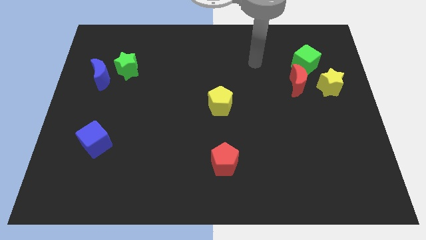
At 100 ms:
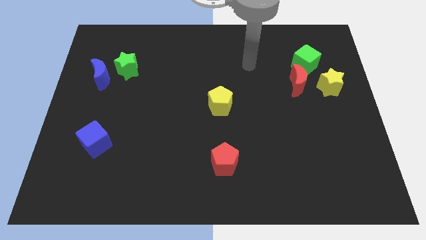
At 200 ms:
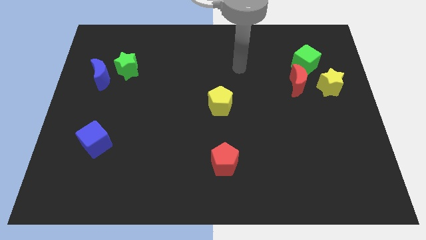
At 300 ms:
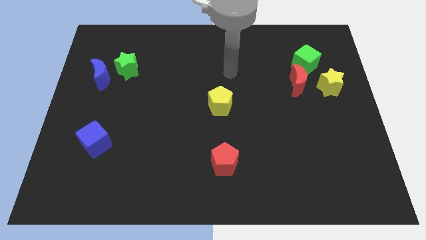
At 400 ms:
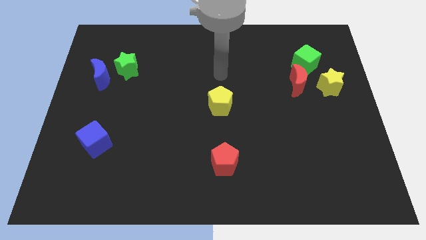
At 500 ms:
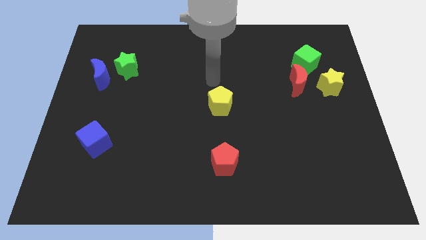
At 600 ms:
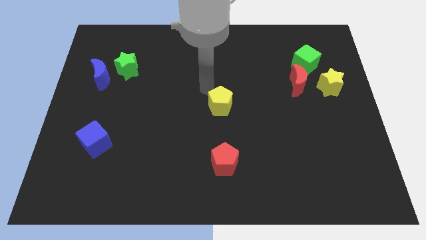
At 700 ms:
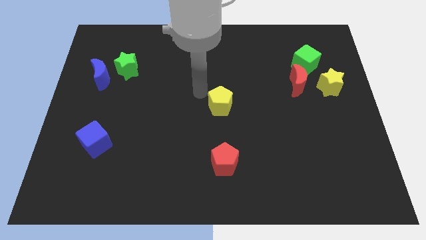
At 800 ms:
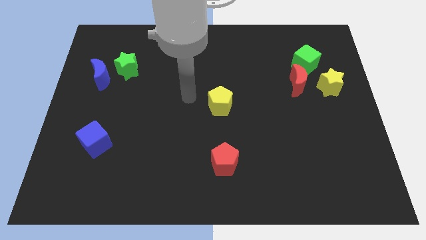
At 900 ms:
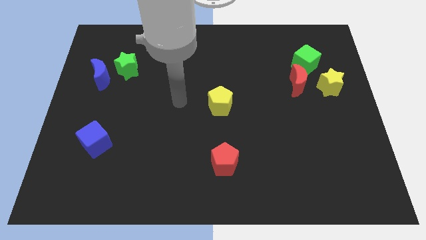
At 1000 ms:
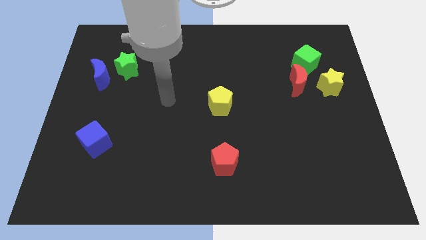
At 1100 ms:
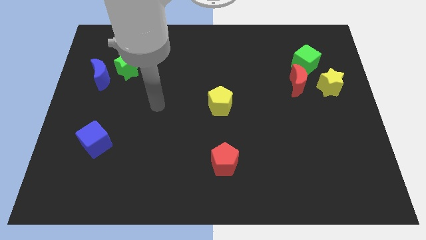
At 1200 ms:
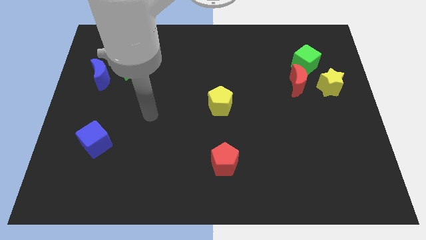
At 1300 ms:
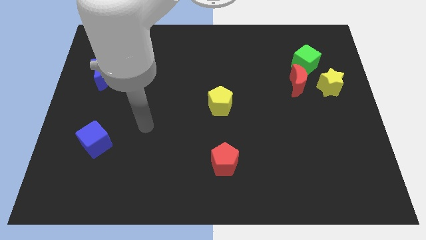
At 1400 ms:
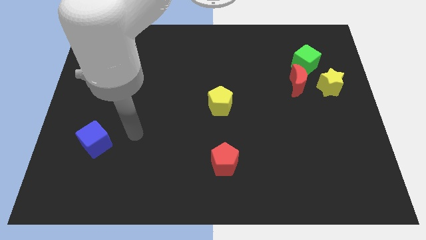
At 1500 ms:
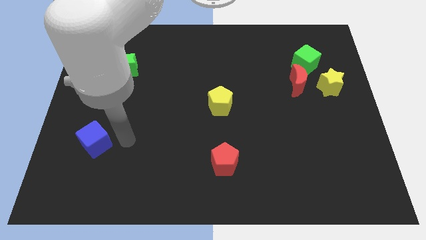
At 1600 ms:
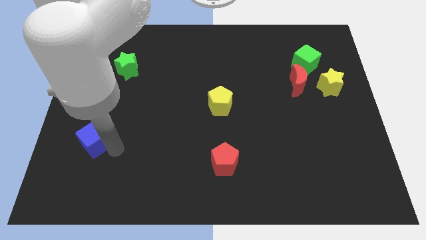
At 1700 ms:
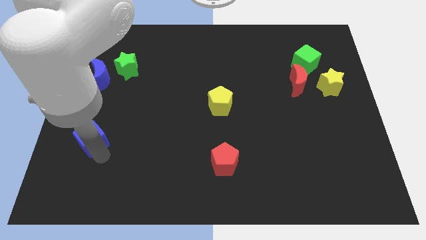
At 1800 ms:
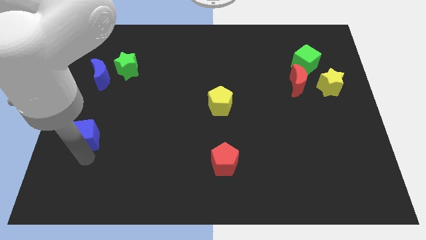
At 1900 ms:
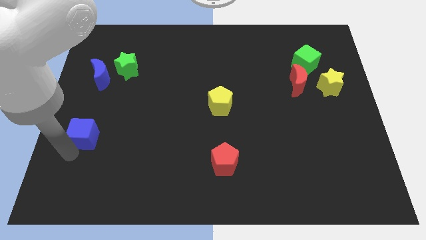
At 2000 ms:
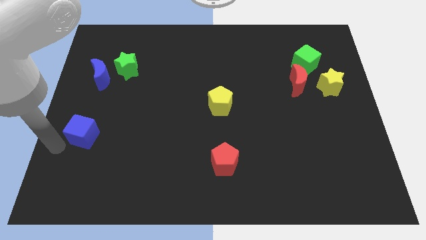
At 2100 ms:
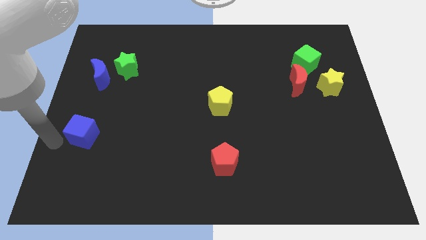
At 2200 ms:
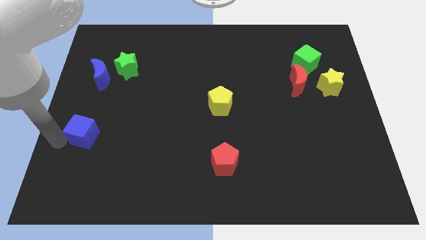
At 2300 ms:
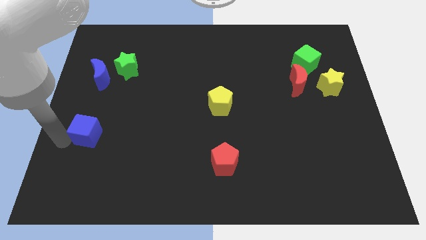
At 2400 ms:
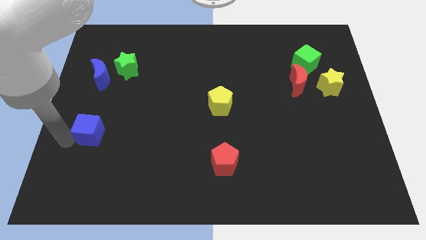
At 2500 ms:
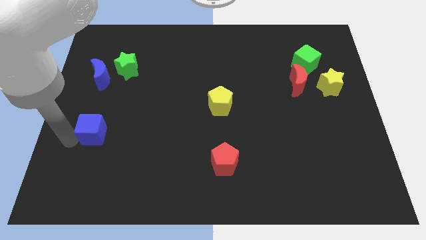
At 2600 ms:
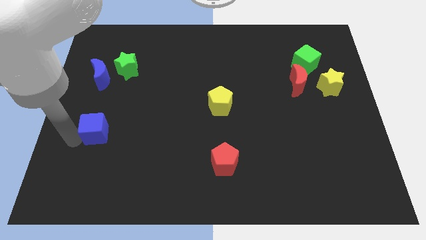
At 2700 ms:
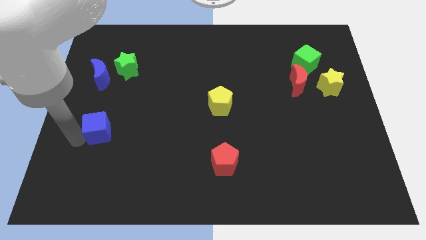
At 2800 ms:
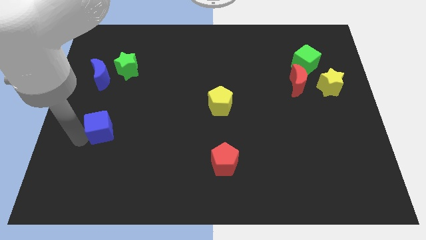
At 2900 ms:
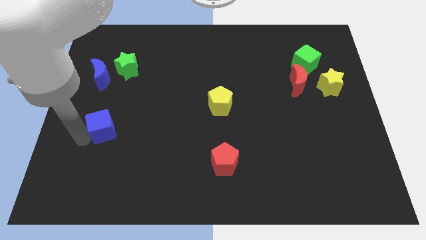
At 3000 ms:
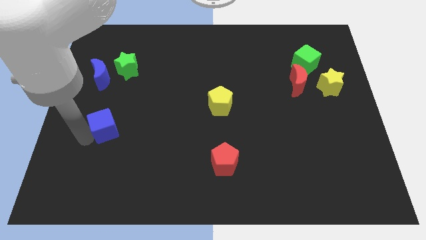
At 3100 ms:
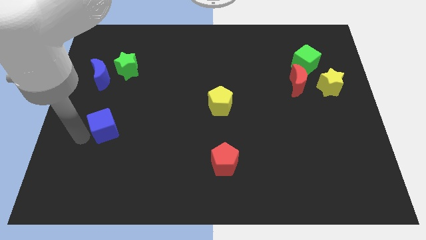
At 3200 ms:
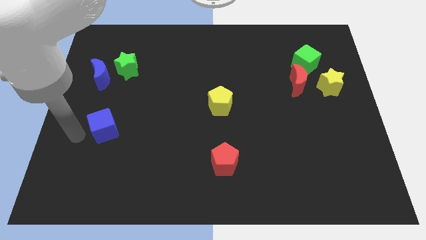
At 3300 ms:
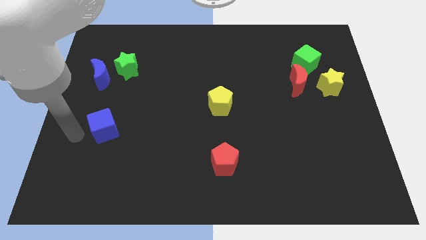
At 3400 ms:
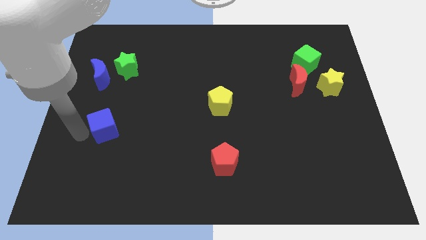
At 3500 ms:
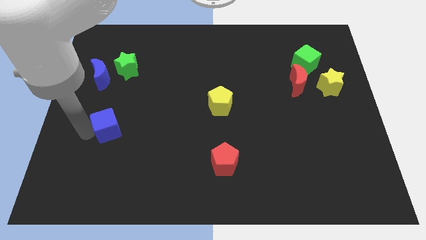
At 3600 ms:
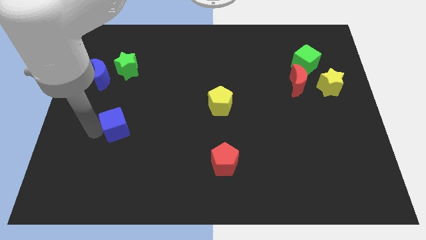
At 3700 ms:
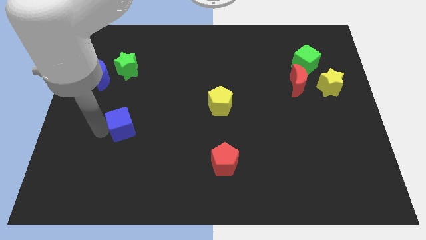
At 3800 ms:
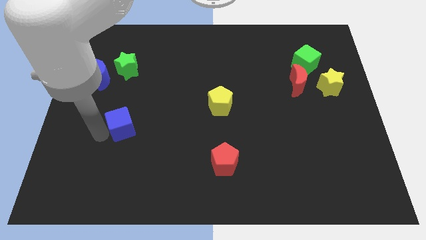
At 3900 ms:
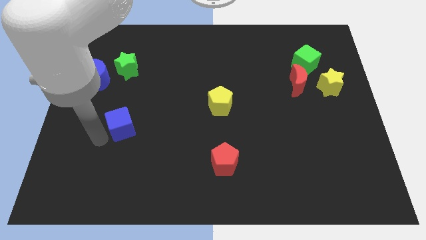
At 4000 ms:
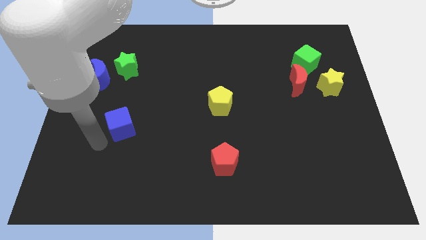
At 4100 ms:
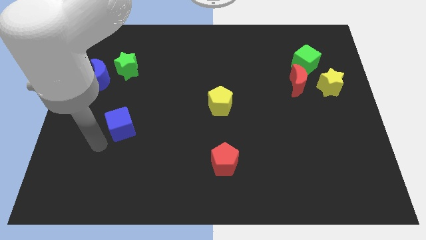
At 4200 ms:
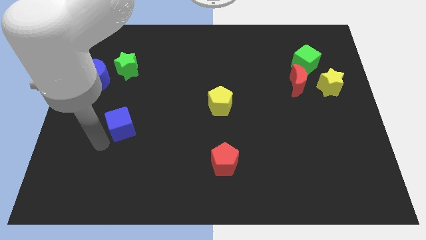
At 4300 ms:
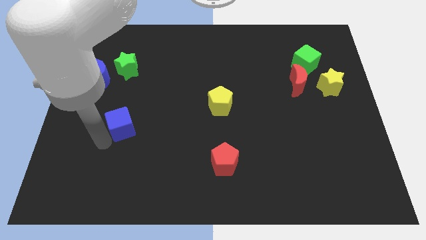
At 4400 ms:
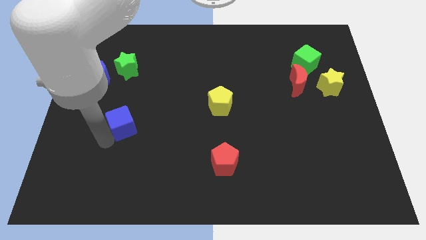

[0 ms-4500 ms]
push the blue cube up and then to the right a little bit

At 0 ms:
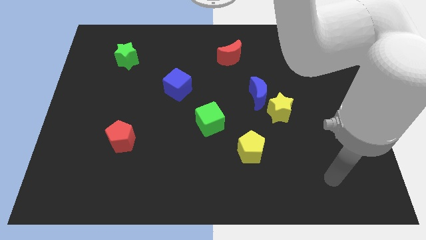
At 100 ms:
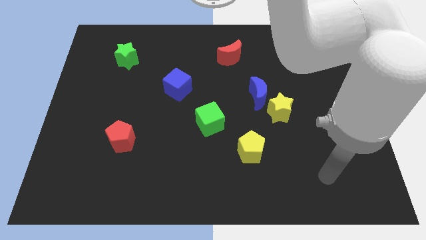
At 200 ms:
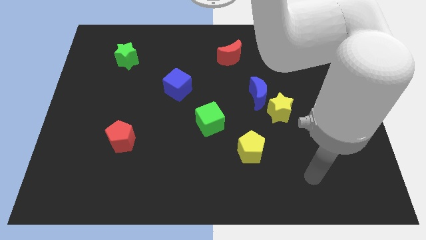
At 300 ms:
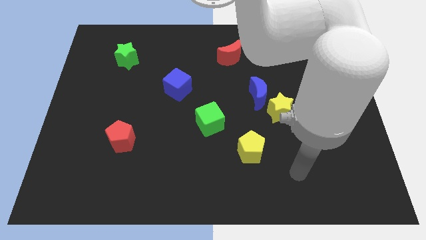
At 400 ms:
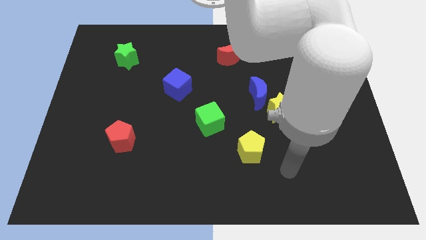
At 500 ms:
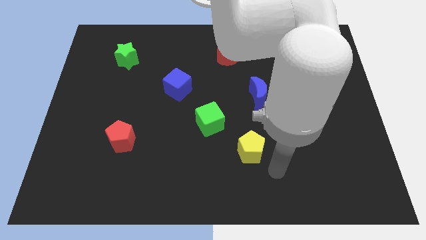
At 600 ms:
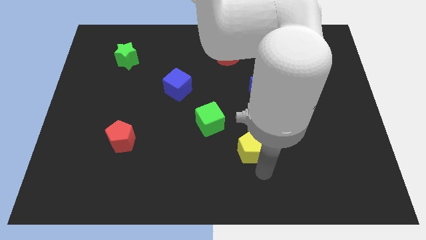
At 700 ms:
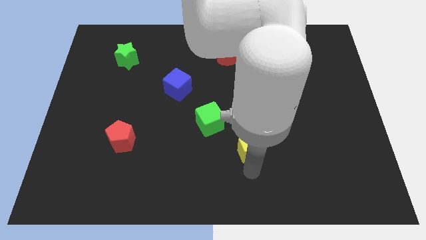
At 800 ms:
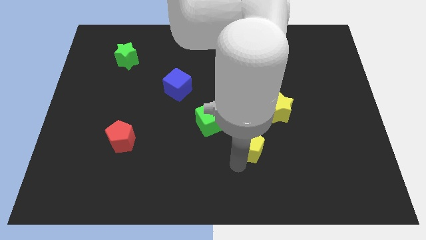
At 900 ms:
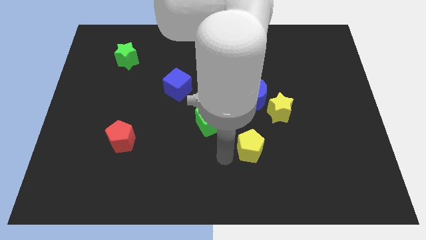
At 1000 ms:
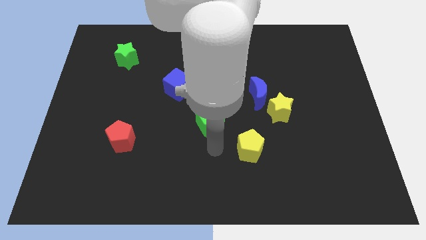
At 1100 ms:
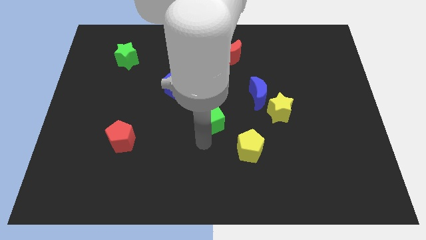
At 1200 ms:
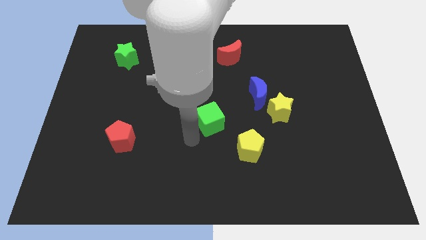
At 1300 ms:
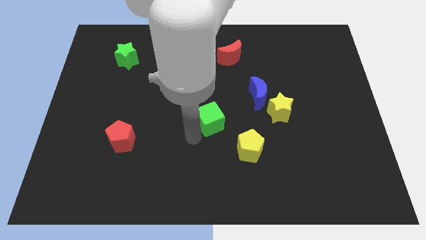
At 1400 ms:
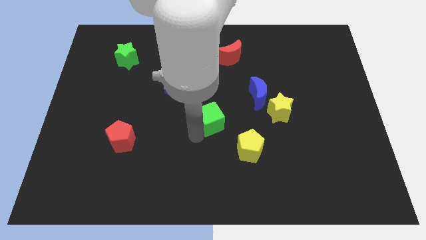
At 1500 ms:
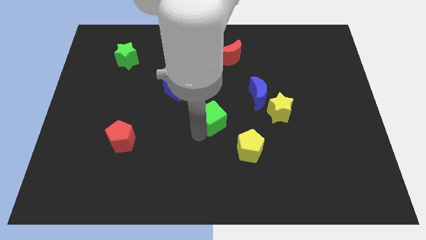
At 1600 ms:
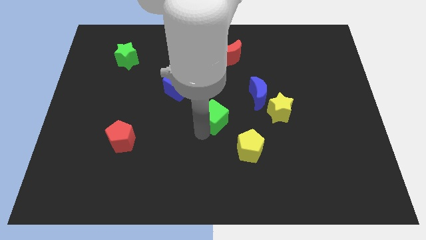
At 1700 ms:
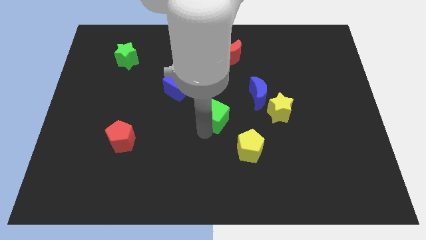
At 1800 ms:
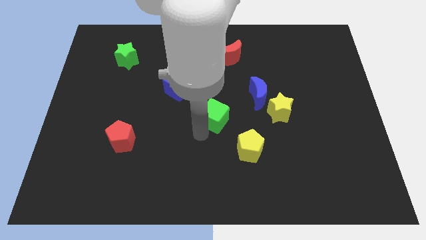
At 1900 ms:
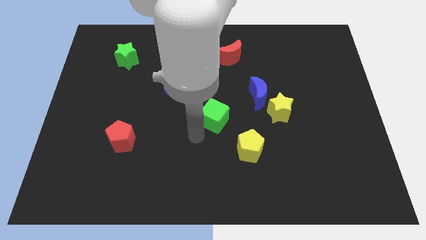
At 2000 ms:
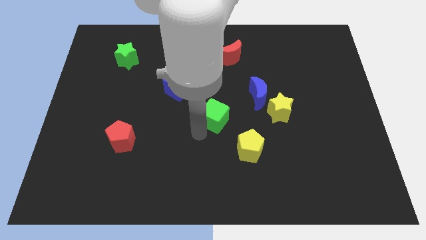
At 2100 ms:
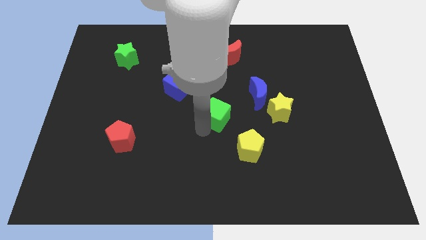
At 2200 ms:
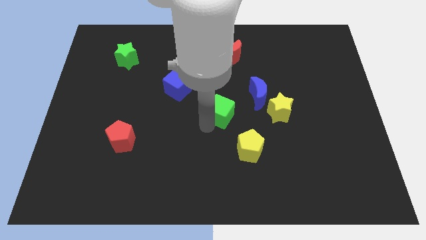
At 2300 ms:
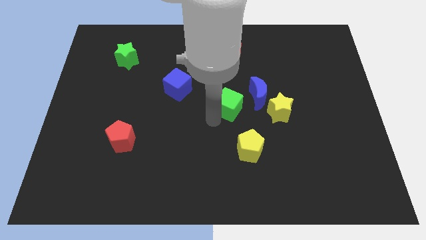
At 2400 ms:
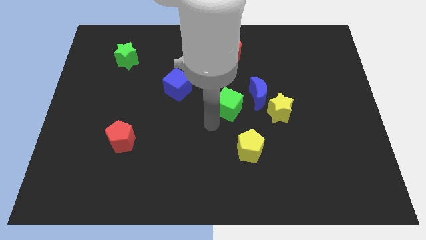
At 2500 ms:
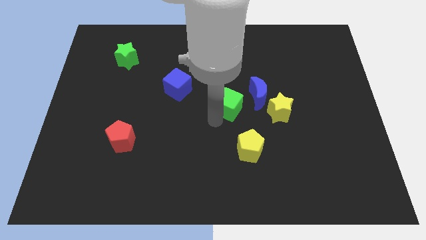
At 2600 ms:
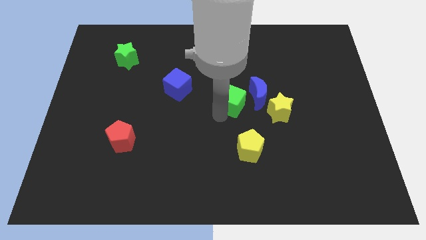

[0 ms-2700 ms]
slide the green cube a little bit upwards and then right

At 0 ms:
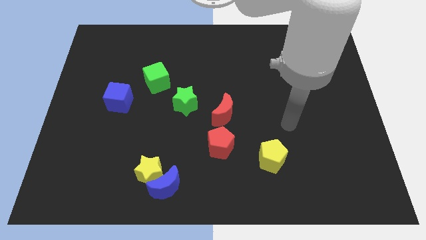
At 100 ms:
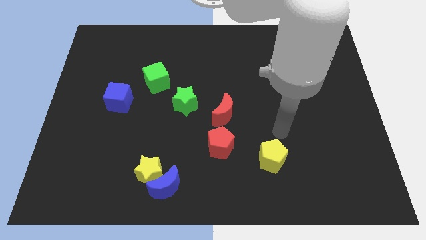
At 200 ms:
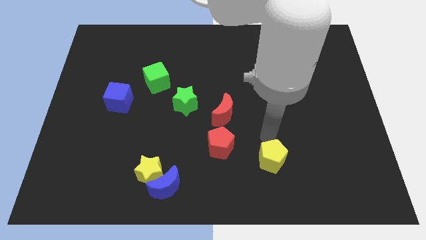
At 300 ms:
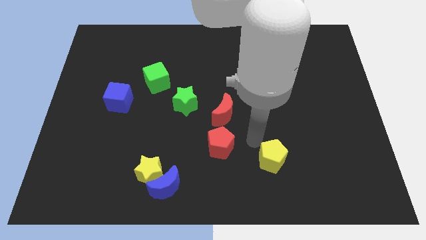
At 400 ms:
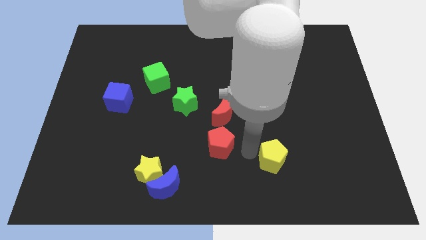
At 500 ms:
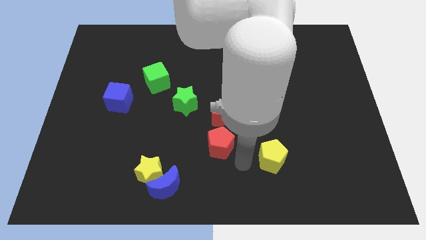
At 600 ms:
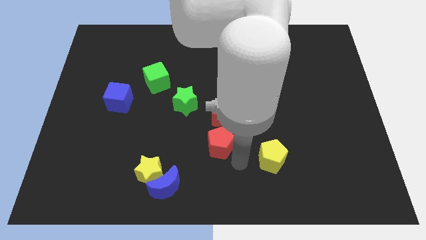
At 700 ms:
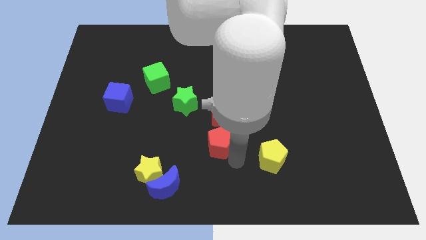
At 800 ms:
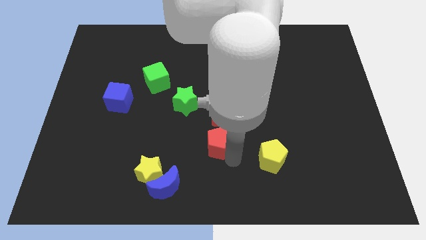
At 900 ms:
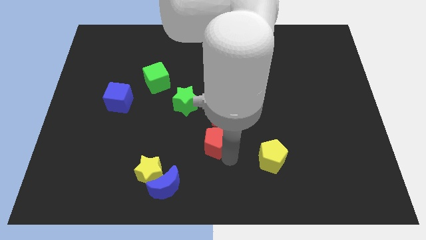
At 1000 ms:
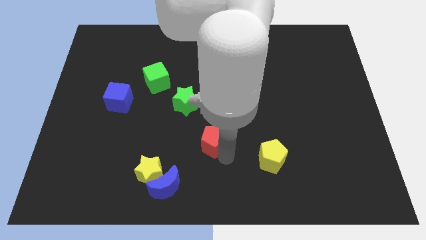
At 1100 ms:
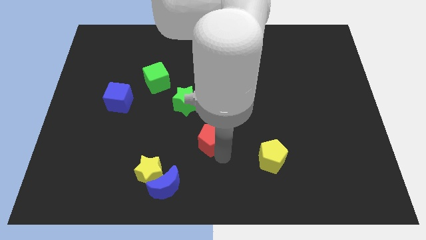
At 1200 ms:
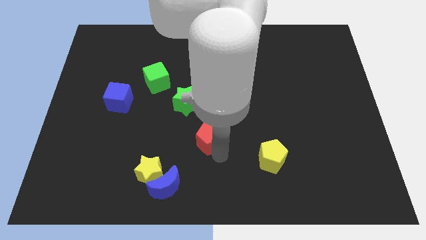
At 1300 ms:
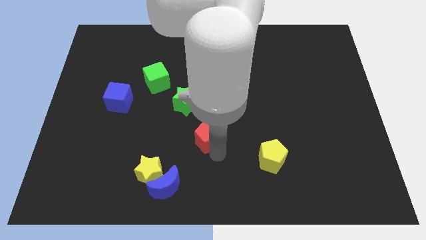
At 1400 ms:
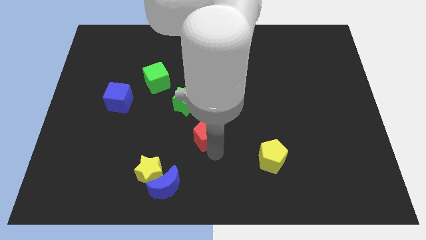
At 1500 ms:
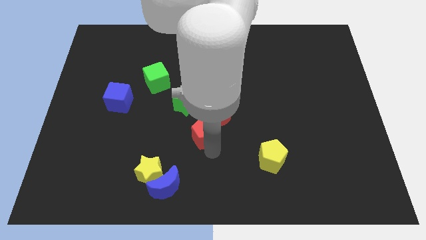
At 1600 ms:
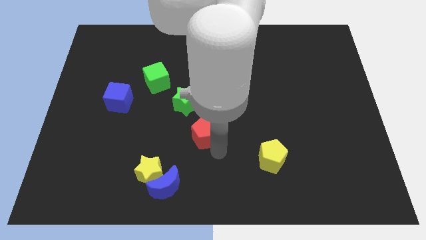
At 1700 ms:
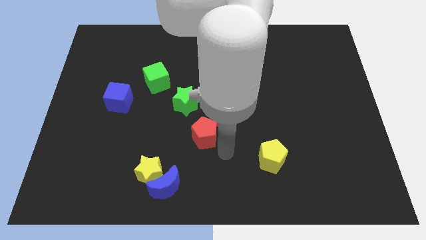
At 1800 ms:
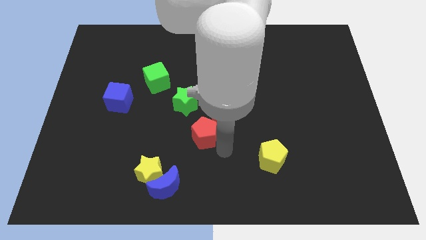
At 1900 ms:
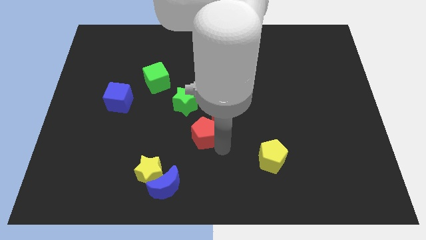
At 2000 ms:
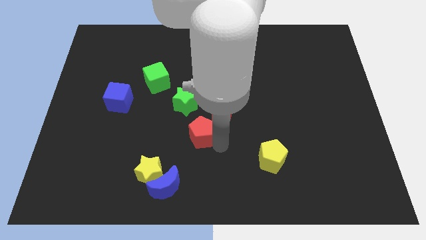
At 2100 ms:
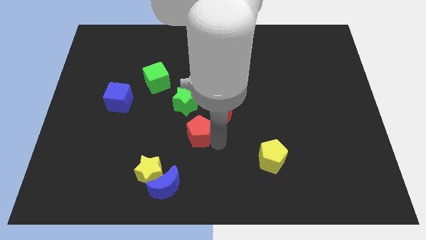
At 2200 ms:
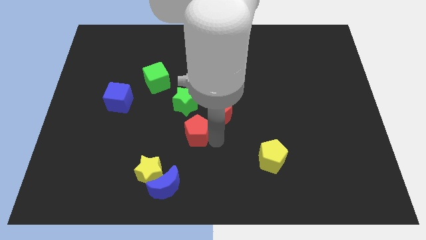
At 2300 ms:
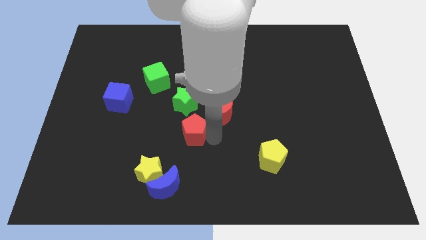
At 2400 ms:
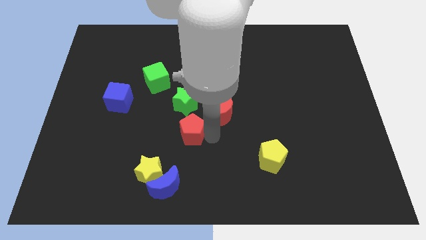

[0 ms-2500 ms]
push the red pentagon upwards and to the left diagonally somewhat
